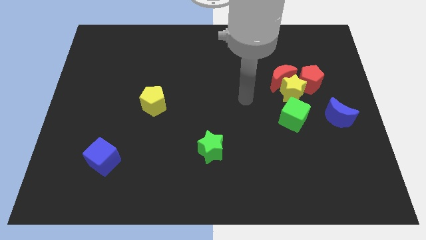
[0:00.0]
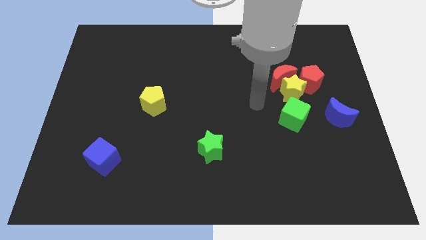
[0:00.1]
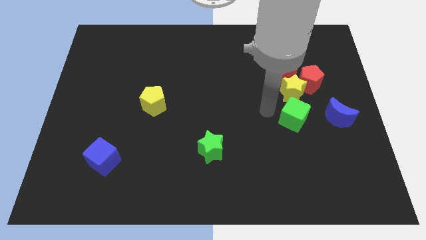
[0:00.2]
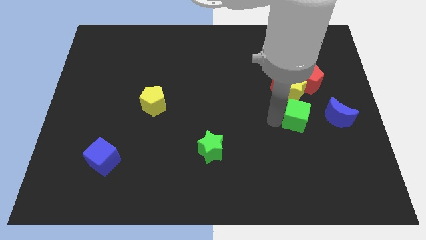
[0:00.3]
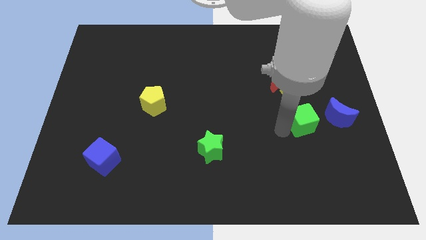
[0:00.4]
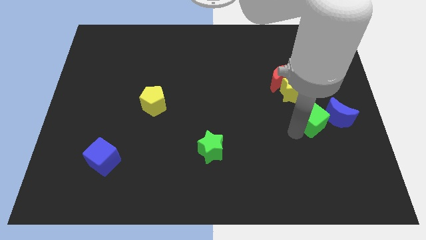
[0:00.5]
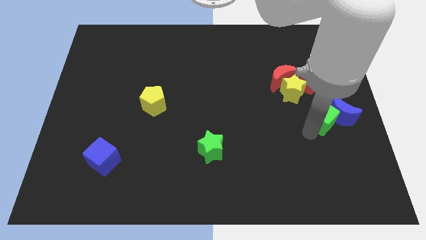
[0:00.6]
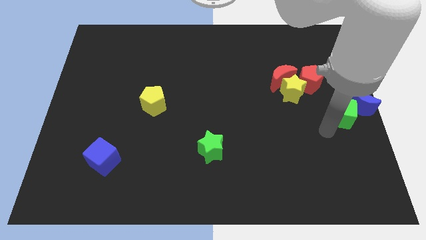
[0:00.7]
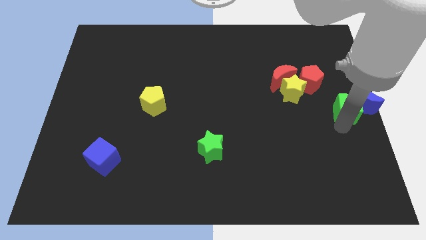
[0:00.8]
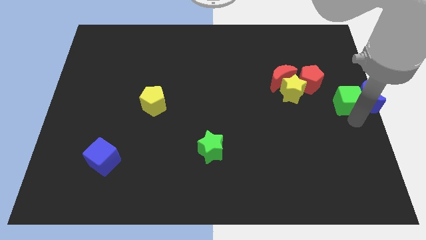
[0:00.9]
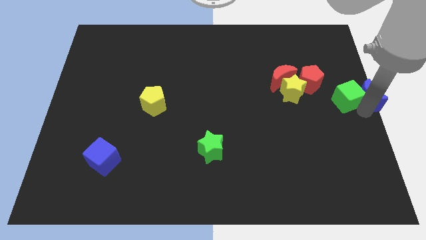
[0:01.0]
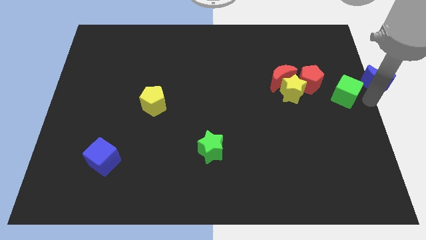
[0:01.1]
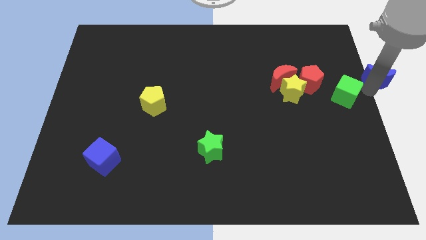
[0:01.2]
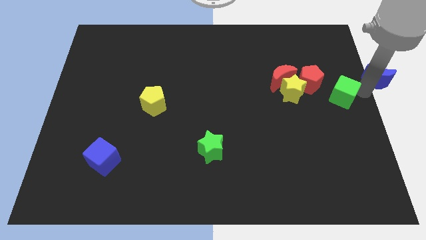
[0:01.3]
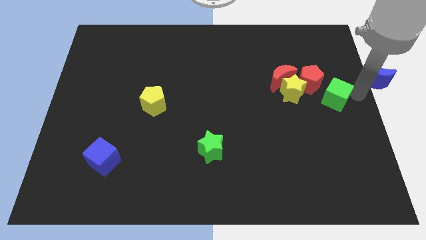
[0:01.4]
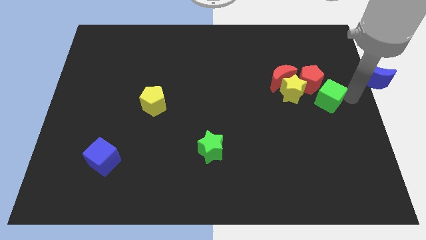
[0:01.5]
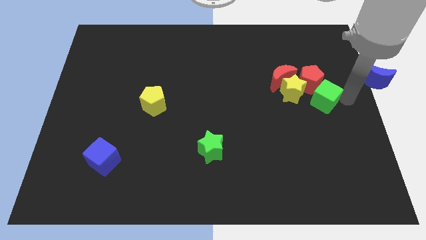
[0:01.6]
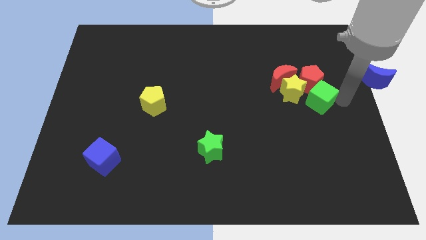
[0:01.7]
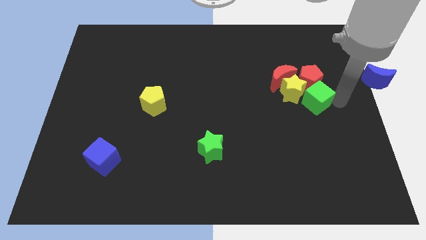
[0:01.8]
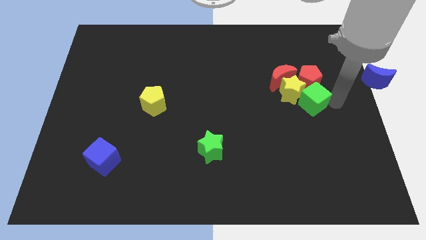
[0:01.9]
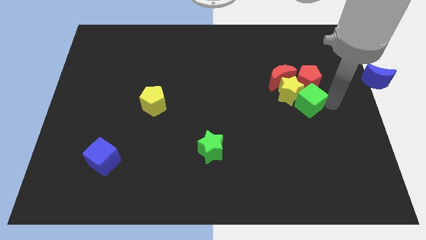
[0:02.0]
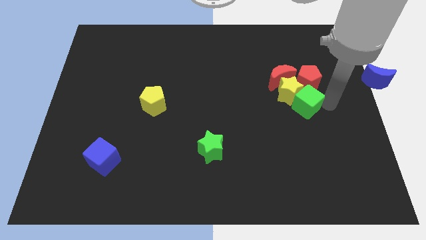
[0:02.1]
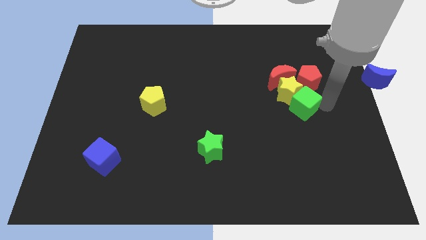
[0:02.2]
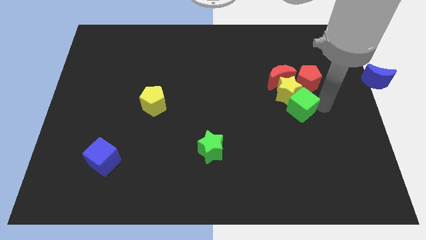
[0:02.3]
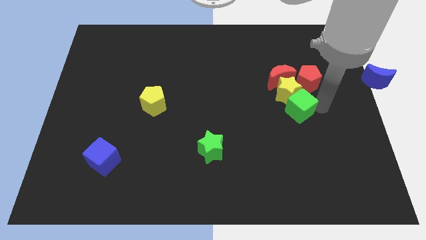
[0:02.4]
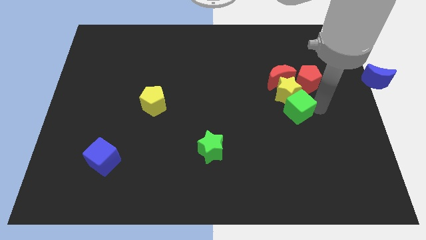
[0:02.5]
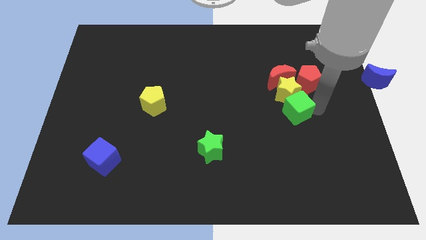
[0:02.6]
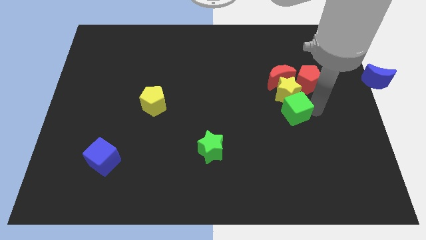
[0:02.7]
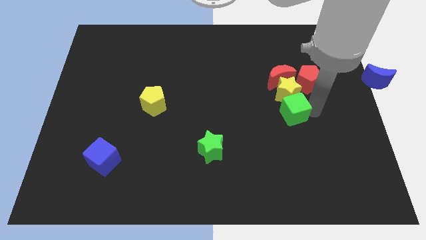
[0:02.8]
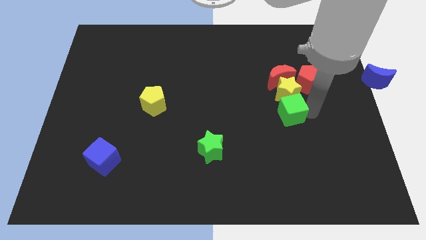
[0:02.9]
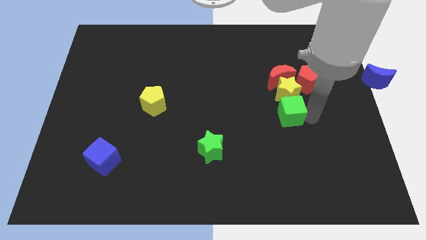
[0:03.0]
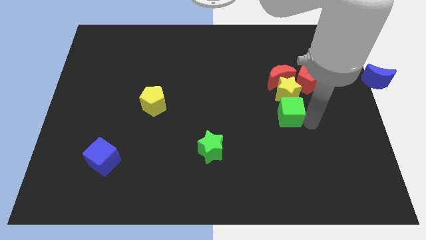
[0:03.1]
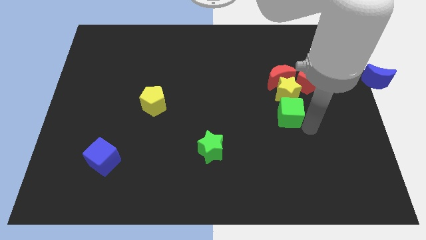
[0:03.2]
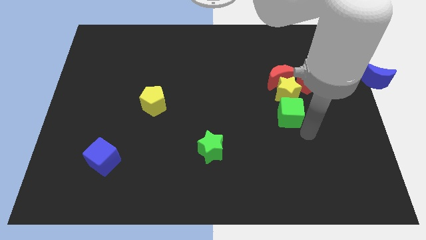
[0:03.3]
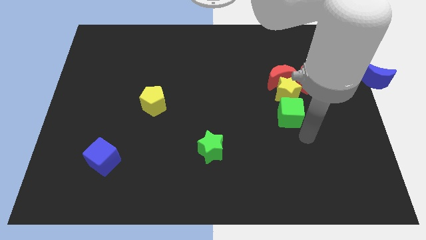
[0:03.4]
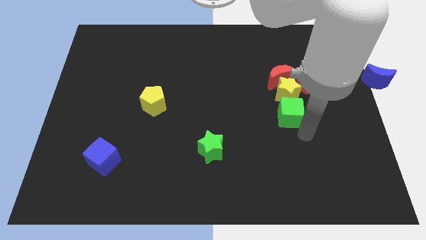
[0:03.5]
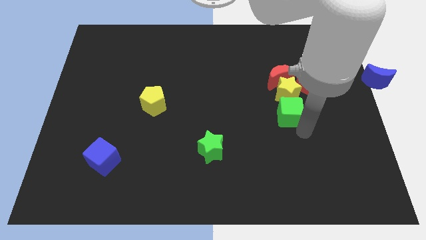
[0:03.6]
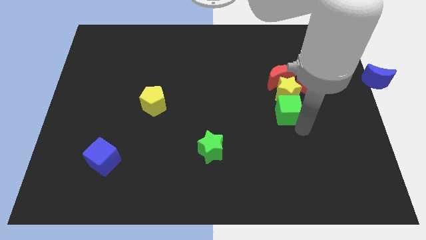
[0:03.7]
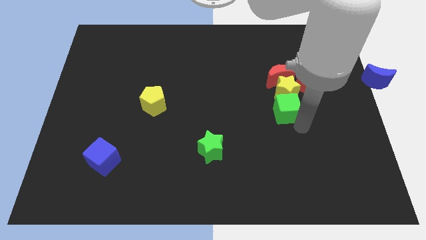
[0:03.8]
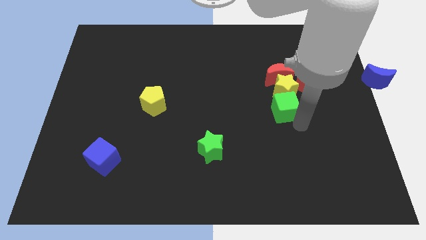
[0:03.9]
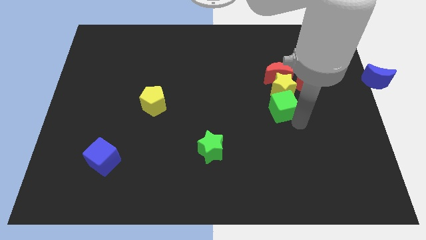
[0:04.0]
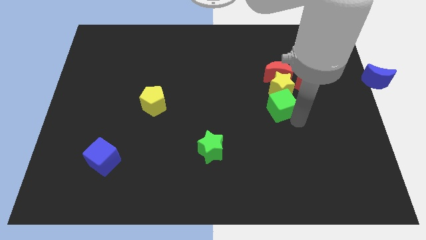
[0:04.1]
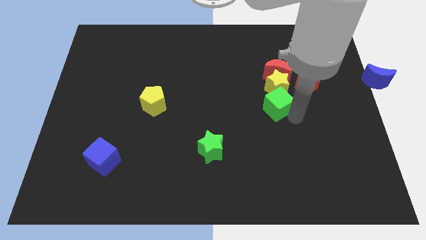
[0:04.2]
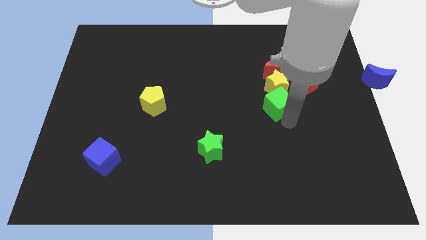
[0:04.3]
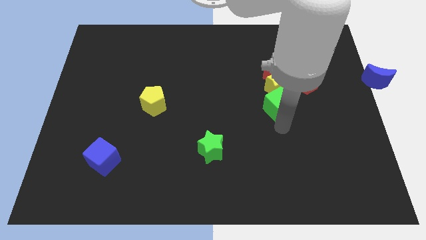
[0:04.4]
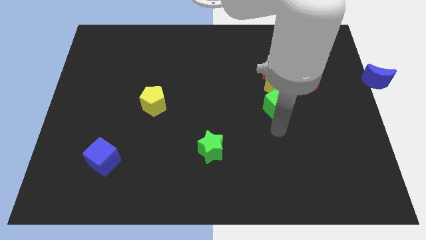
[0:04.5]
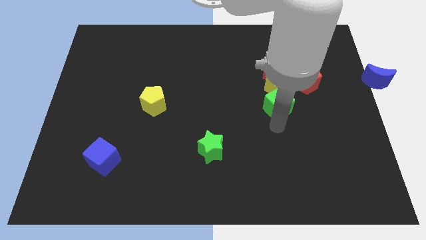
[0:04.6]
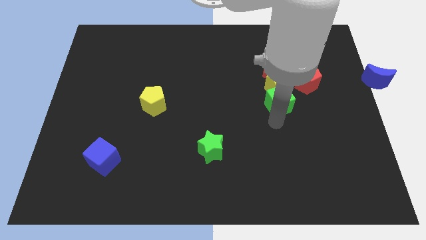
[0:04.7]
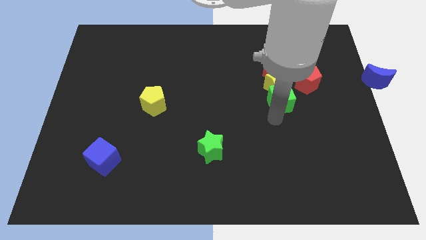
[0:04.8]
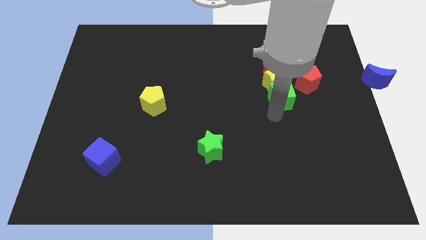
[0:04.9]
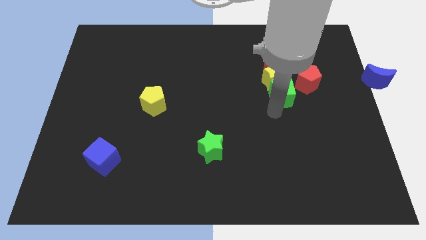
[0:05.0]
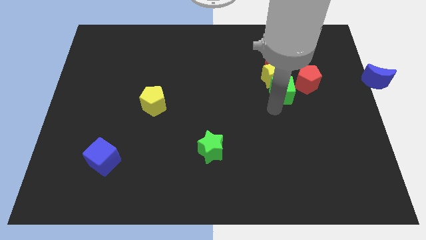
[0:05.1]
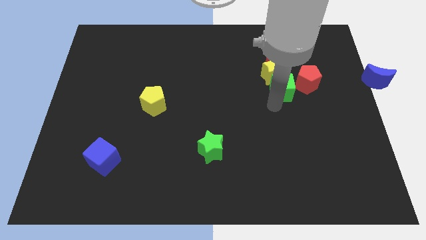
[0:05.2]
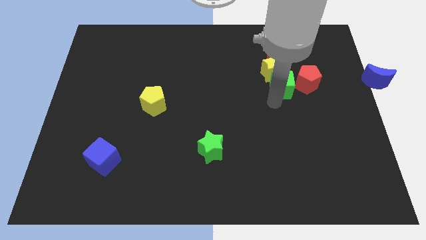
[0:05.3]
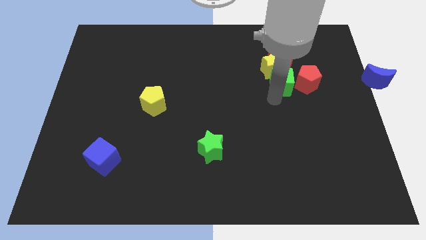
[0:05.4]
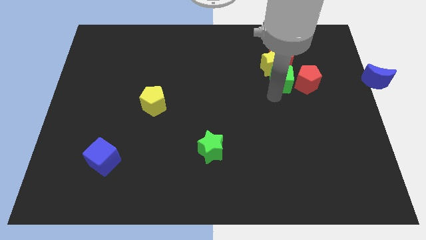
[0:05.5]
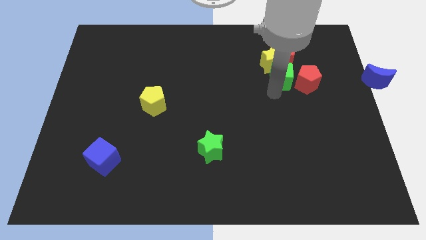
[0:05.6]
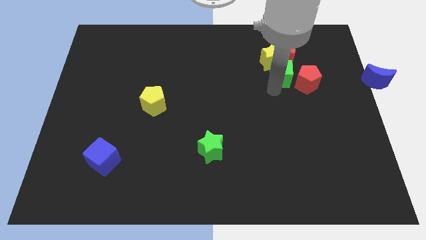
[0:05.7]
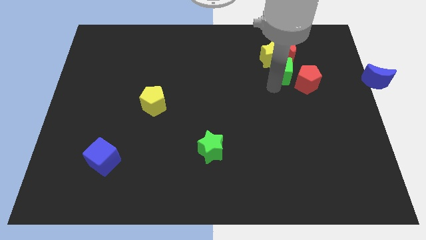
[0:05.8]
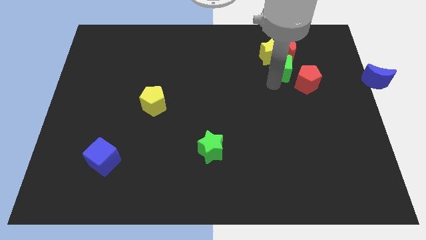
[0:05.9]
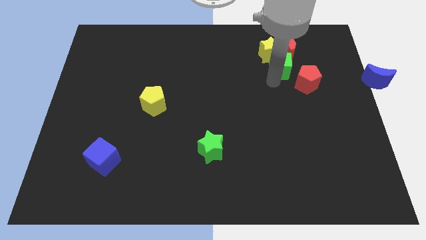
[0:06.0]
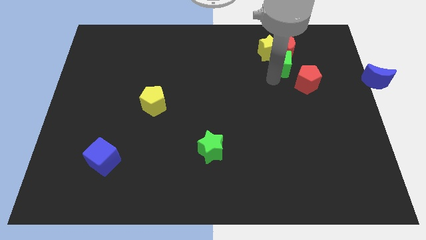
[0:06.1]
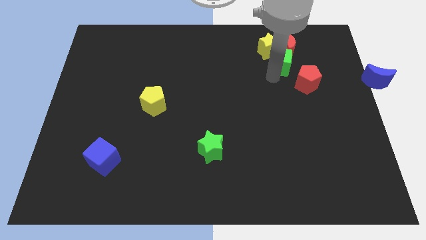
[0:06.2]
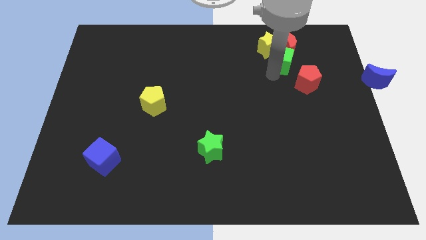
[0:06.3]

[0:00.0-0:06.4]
slide the green cube close to the red moon

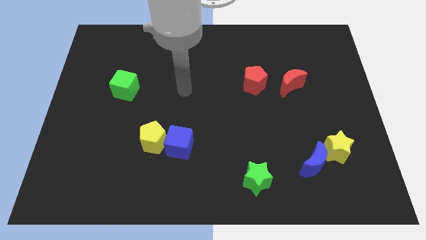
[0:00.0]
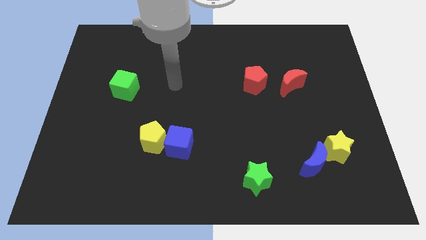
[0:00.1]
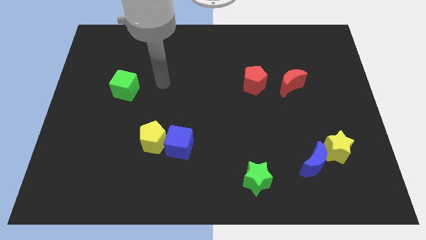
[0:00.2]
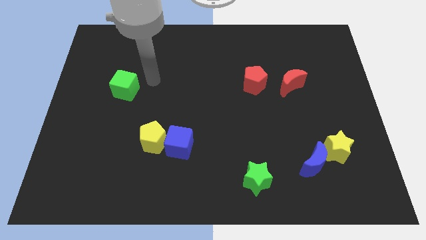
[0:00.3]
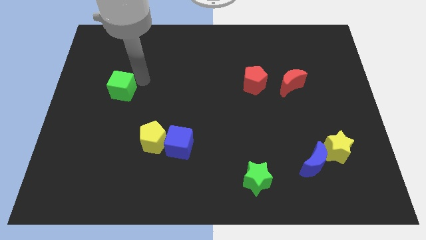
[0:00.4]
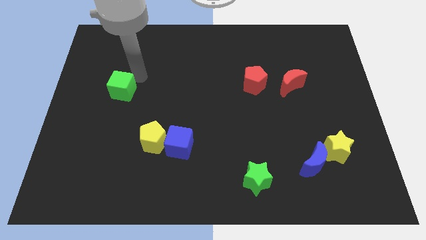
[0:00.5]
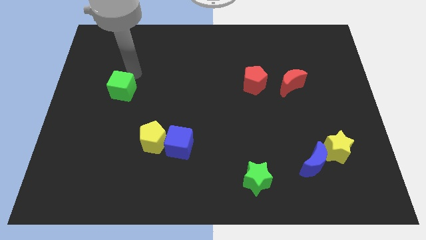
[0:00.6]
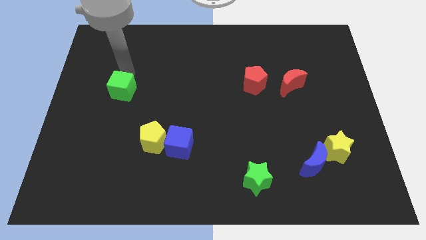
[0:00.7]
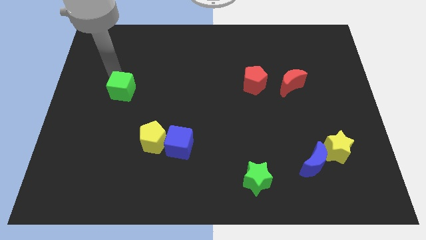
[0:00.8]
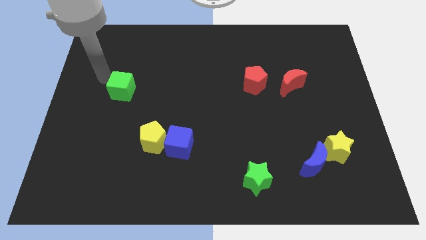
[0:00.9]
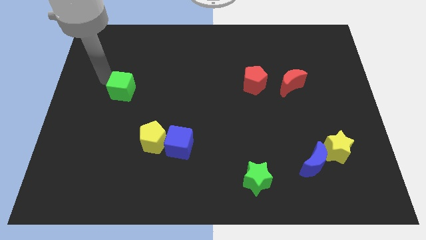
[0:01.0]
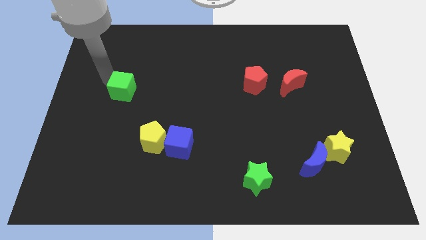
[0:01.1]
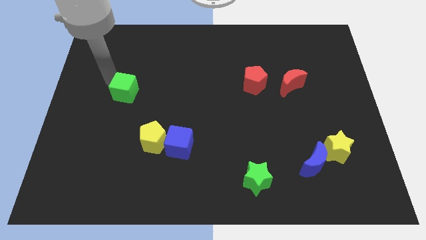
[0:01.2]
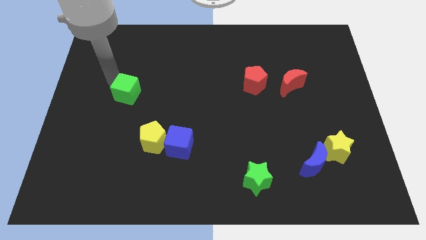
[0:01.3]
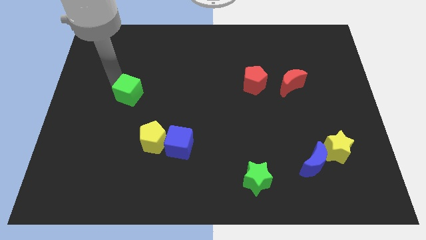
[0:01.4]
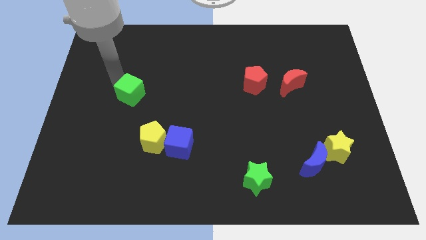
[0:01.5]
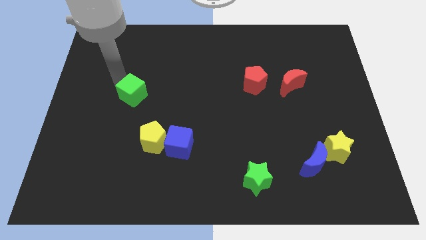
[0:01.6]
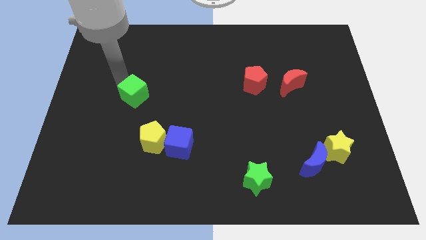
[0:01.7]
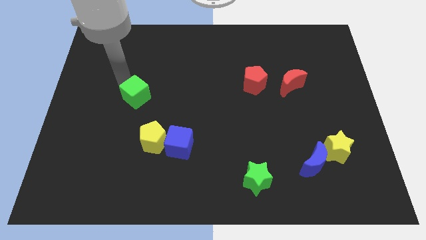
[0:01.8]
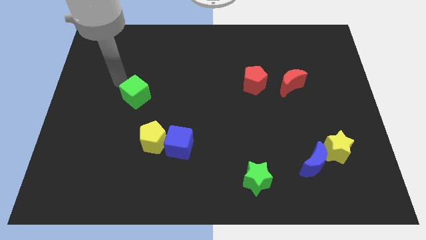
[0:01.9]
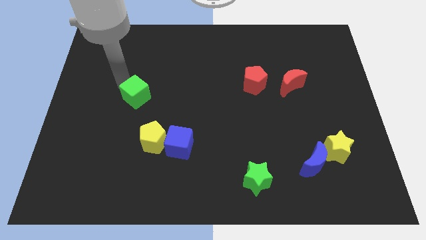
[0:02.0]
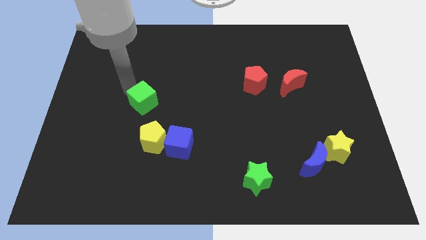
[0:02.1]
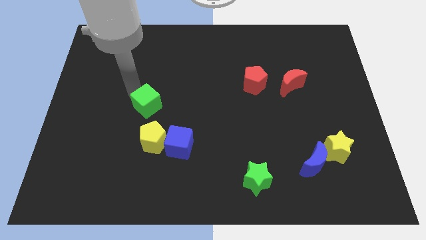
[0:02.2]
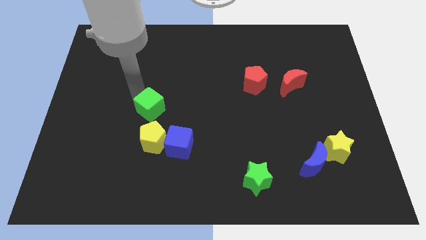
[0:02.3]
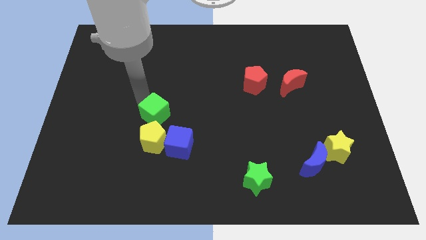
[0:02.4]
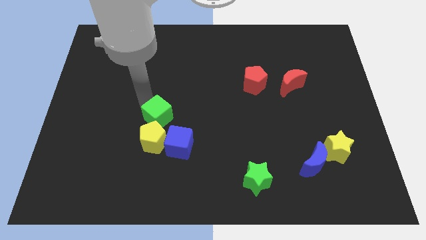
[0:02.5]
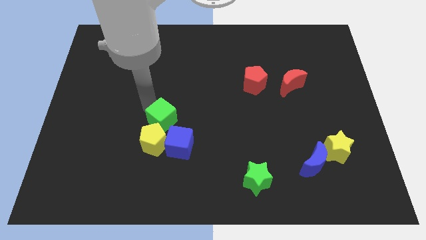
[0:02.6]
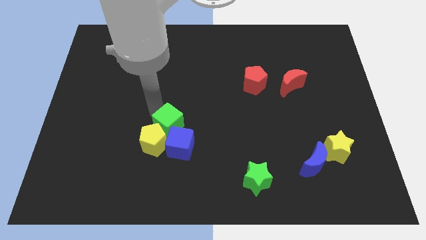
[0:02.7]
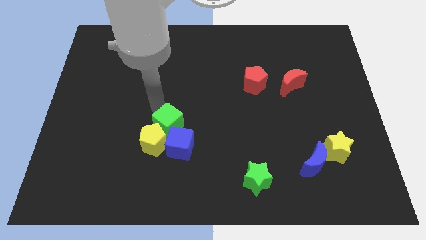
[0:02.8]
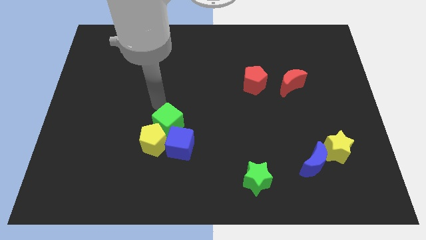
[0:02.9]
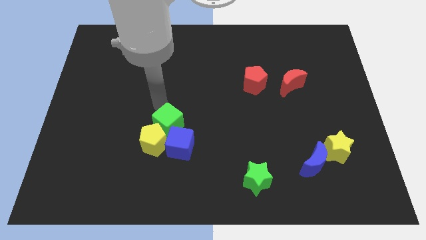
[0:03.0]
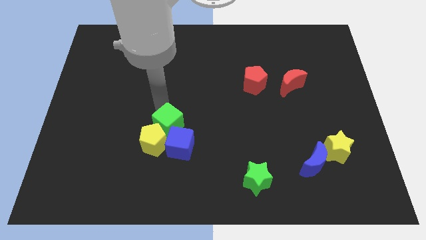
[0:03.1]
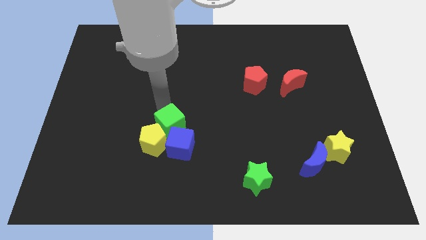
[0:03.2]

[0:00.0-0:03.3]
put the green cube towards the blue cube
